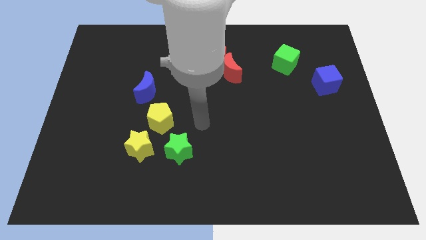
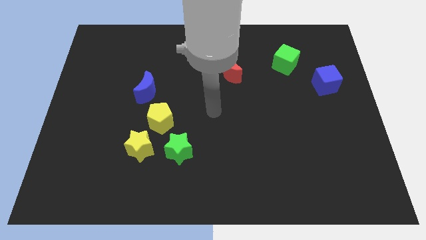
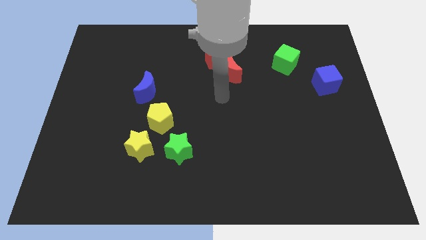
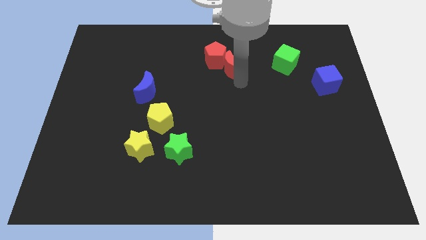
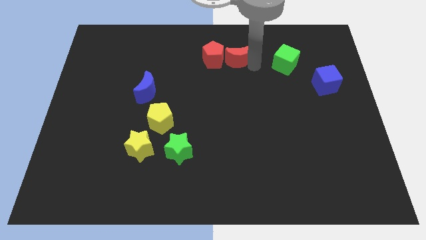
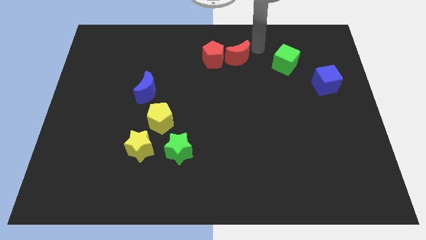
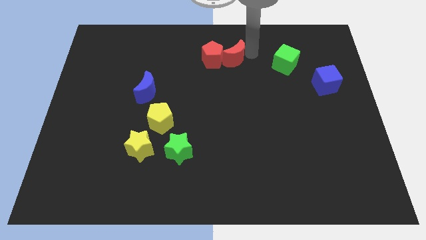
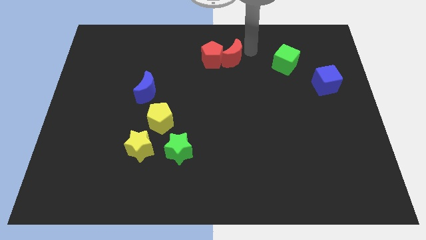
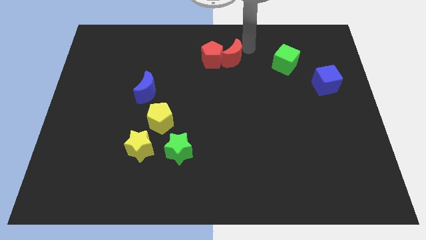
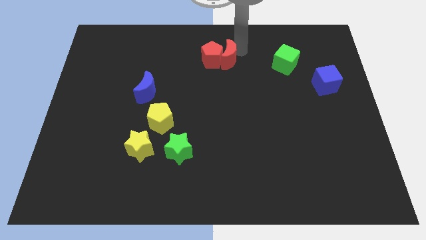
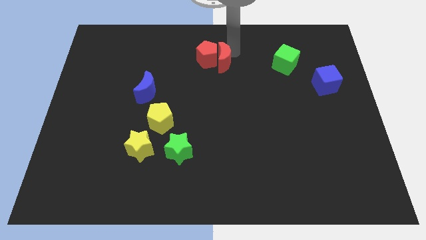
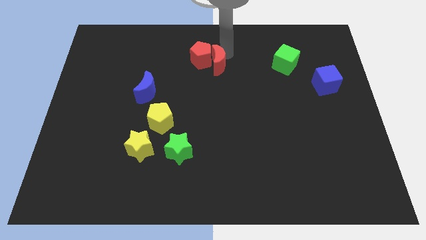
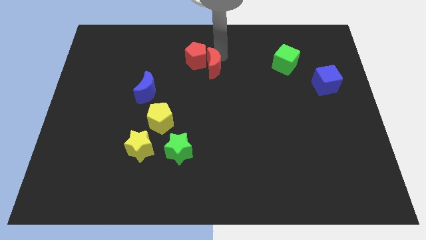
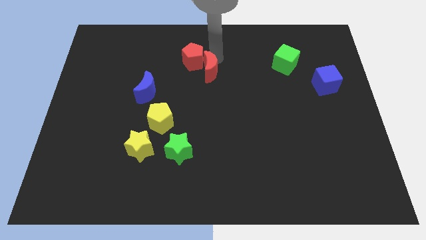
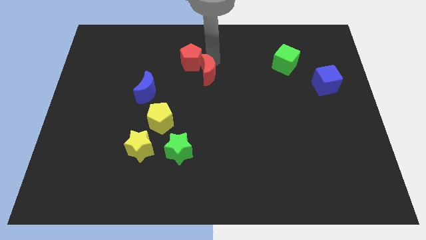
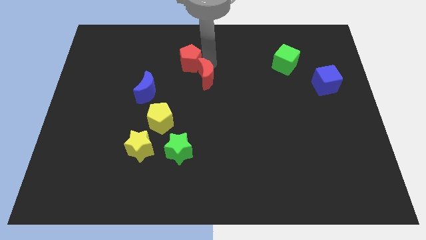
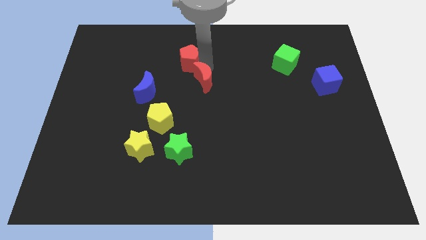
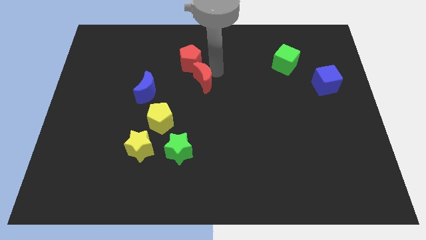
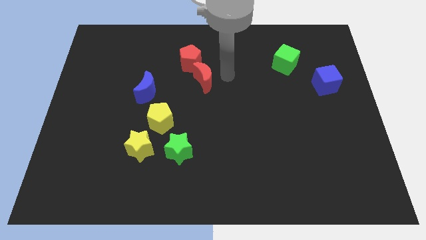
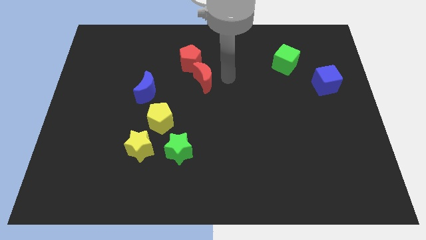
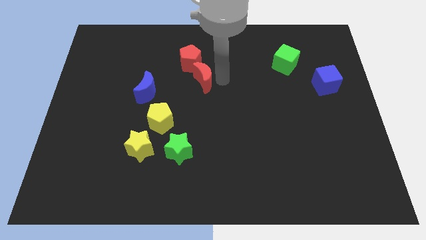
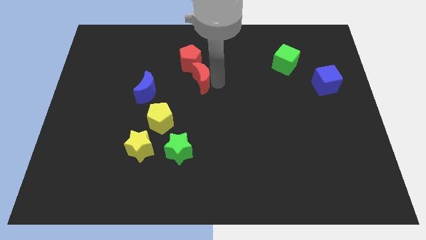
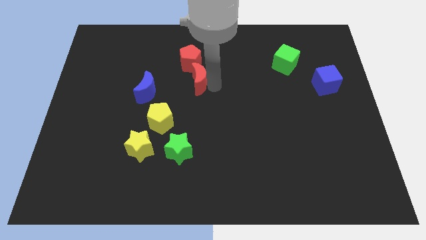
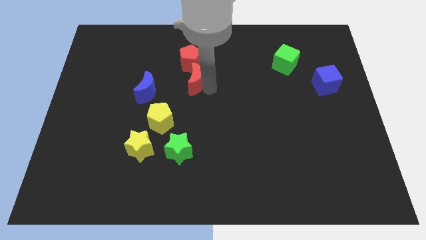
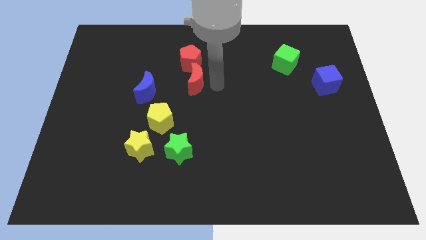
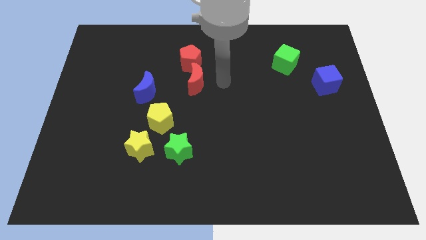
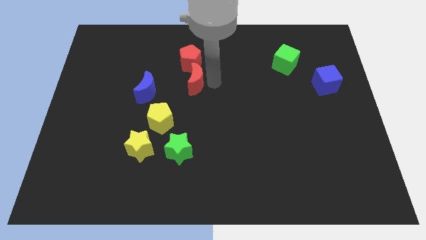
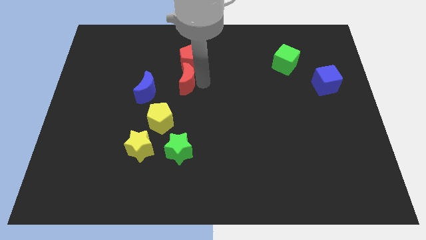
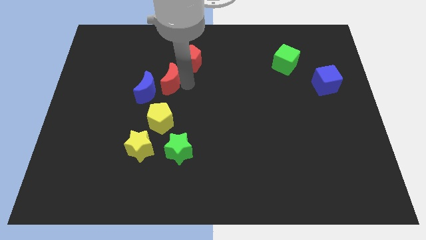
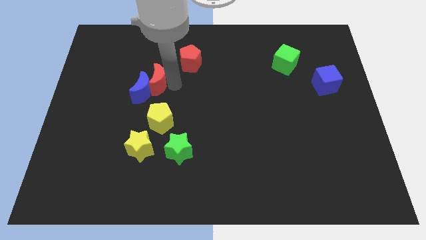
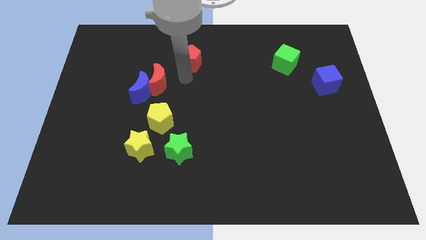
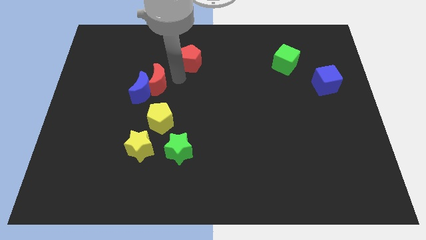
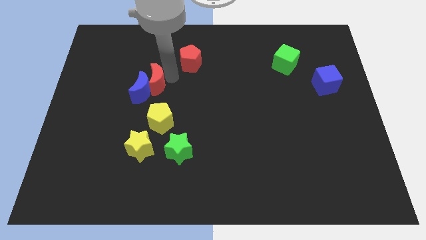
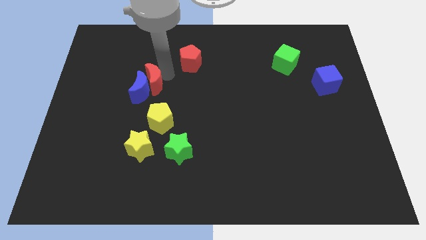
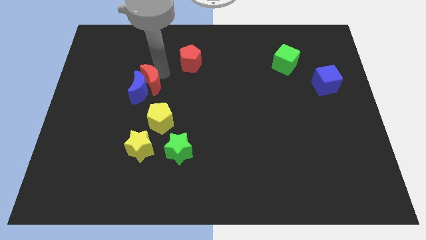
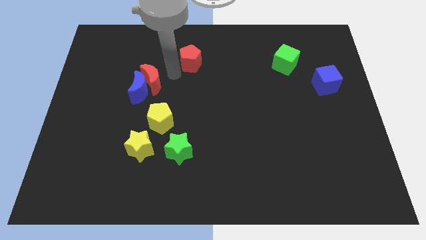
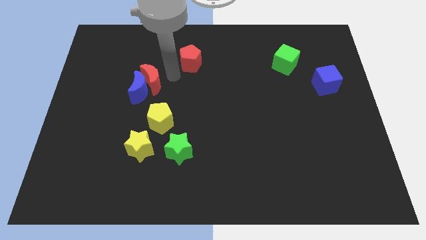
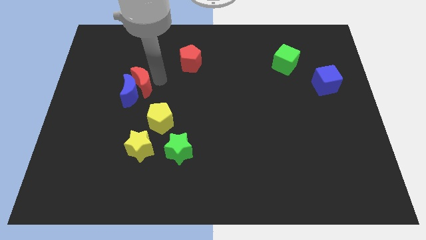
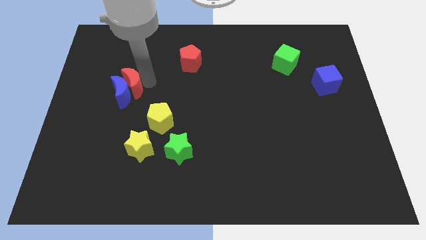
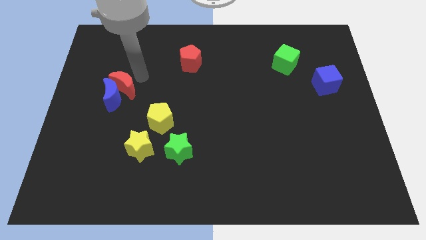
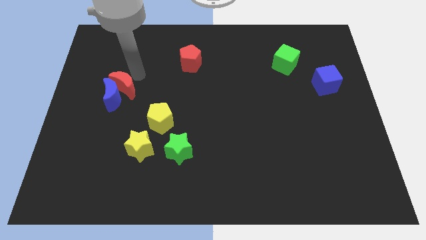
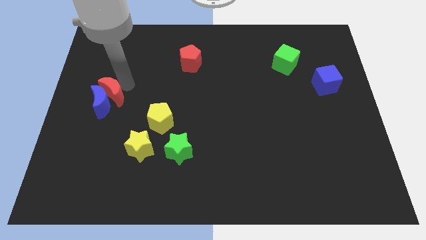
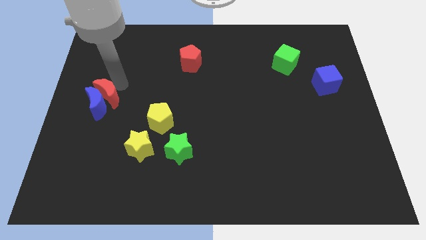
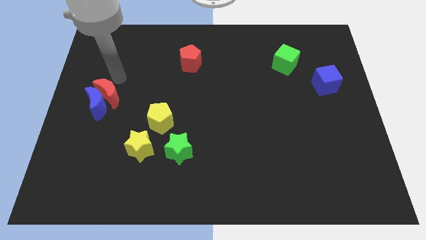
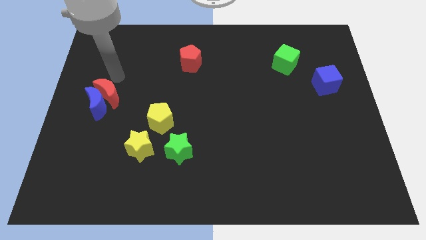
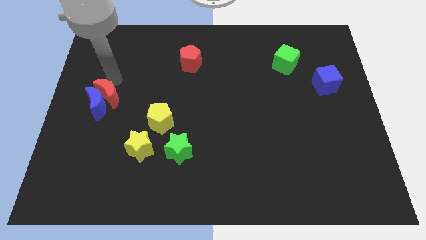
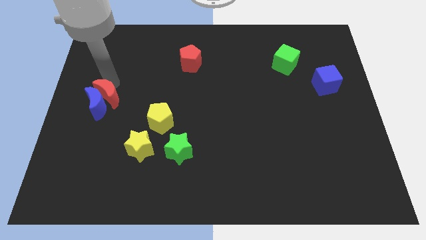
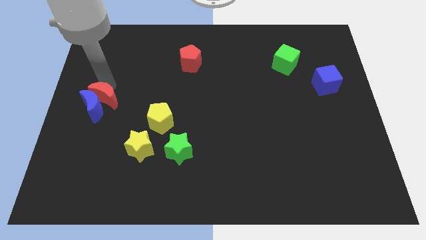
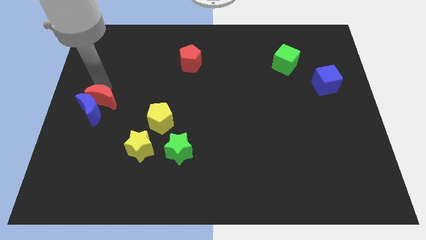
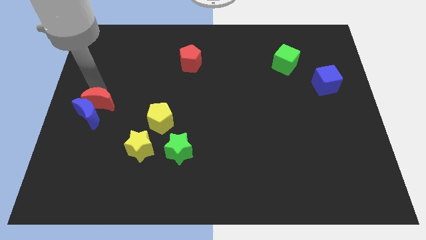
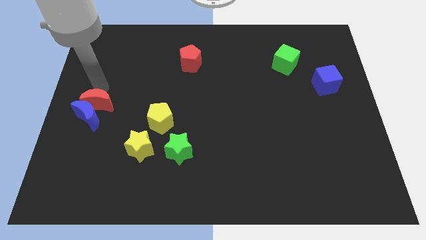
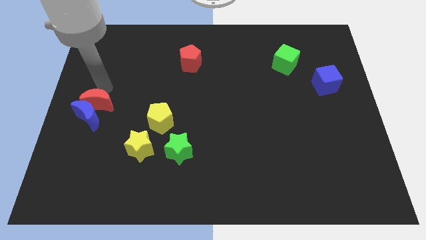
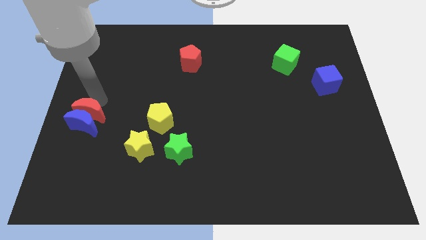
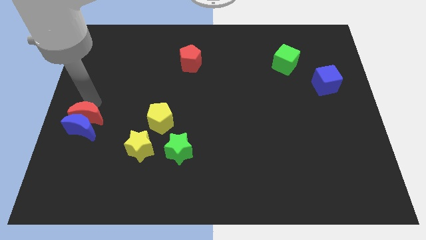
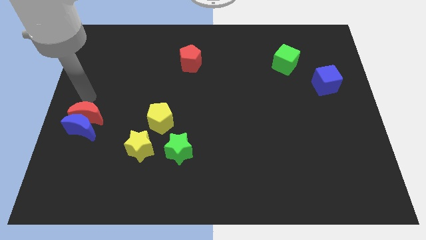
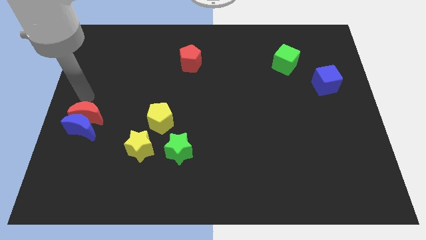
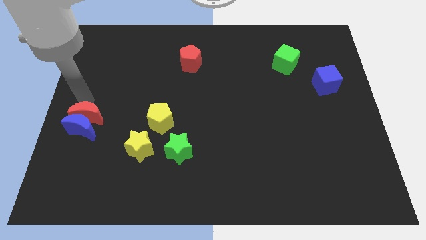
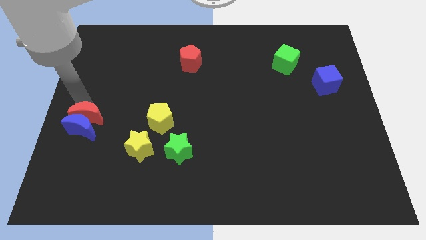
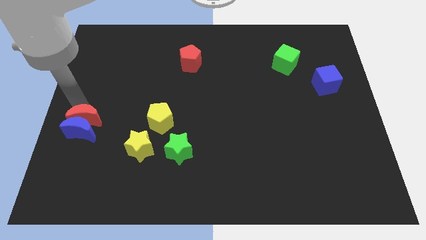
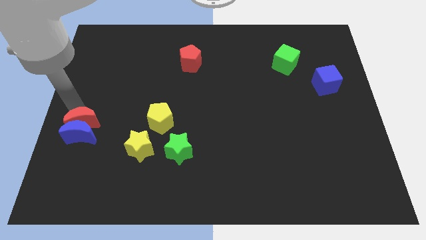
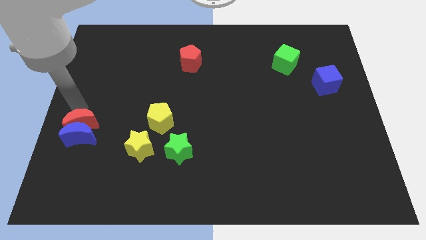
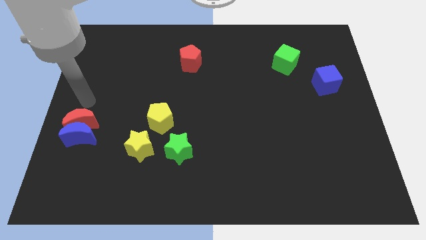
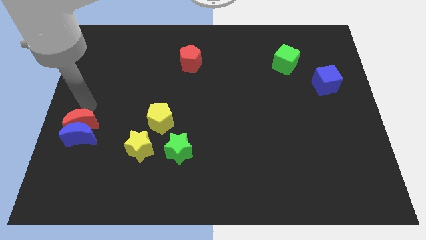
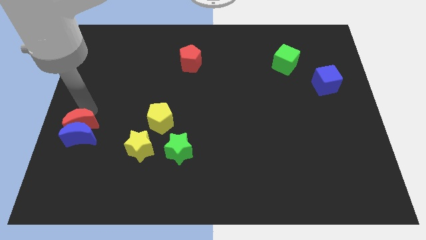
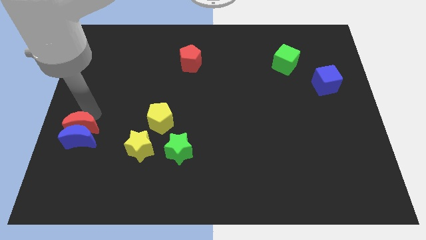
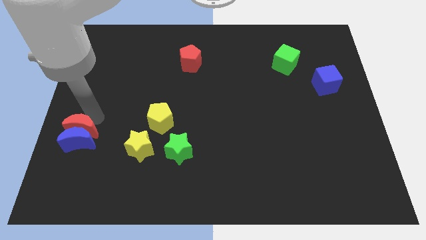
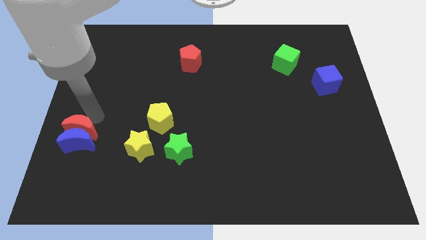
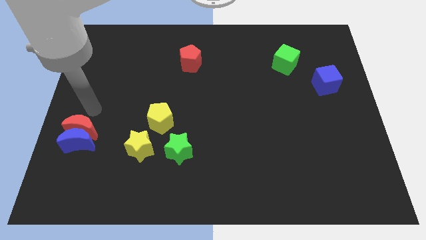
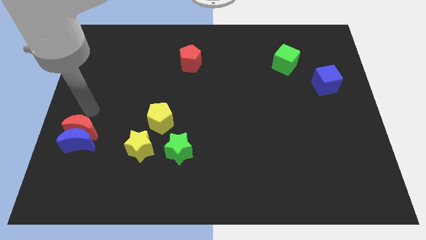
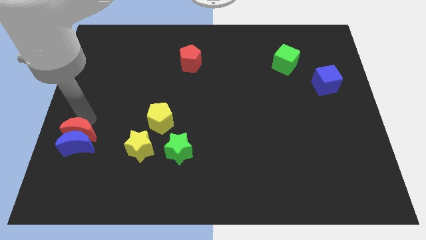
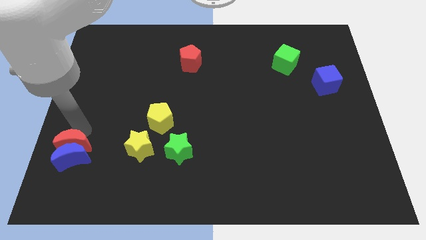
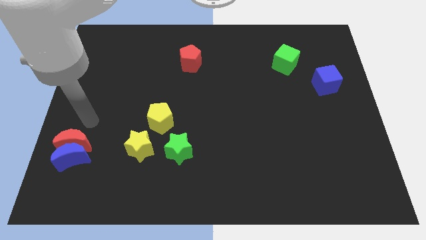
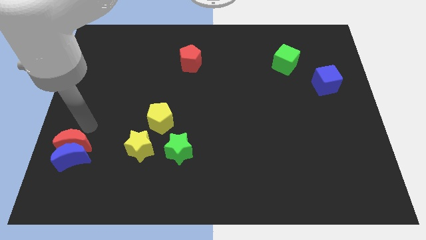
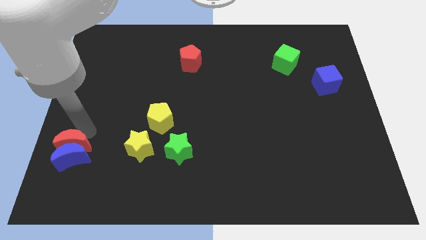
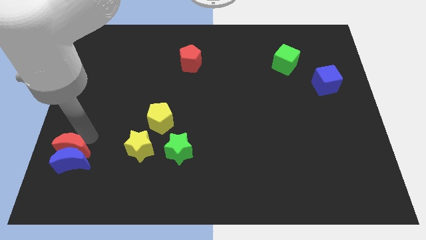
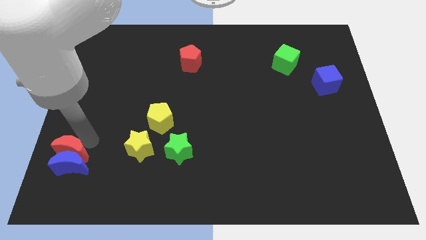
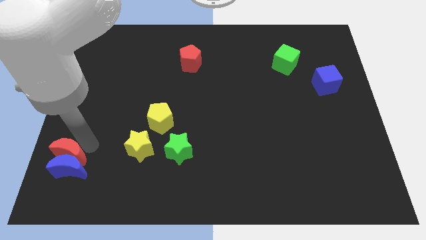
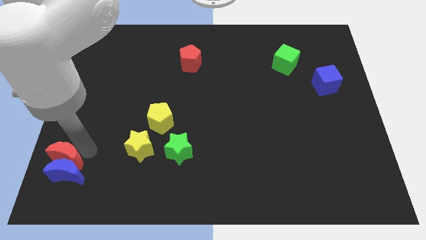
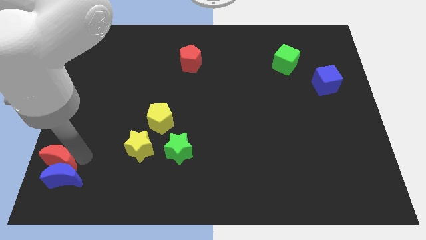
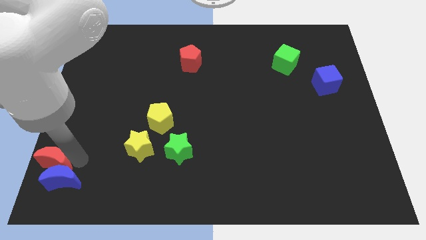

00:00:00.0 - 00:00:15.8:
put the red moon to the bottom left corner
